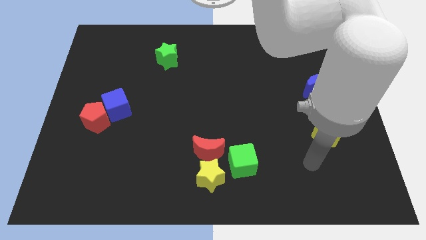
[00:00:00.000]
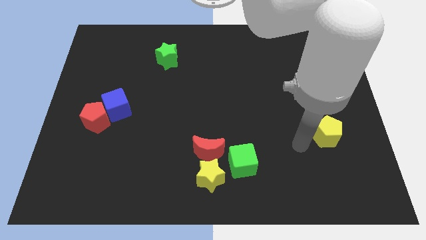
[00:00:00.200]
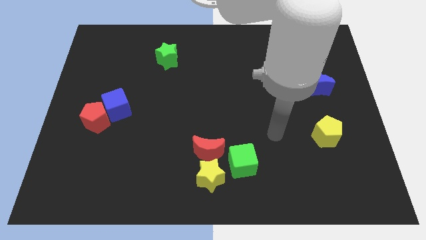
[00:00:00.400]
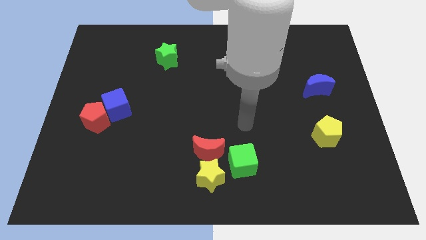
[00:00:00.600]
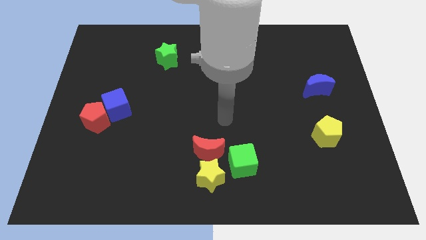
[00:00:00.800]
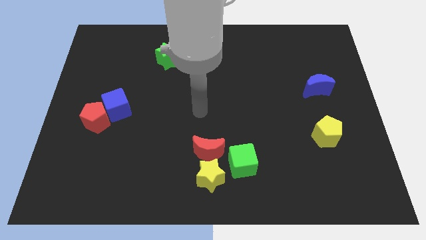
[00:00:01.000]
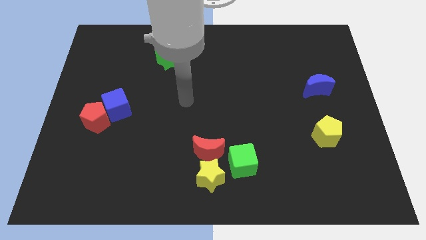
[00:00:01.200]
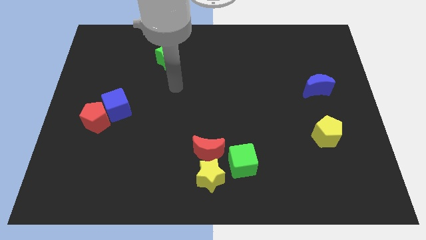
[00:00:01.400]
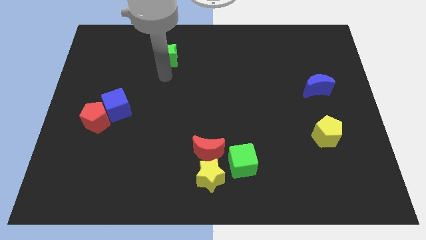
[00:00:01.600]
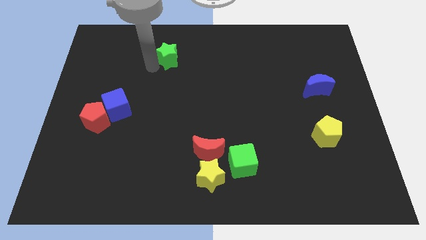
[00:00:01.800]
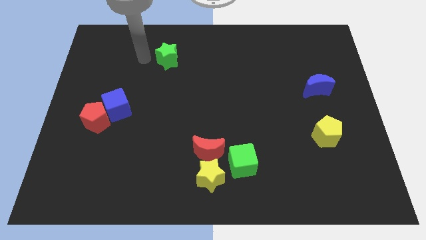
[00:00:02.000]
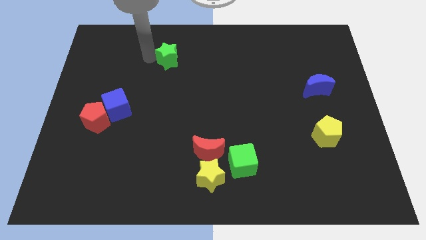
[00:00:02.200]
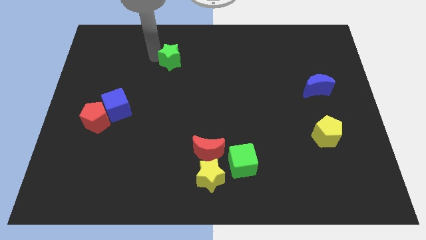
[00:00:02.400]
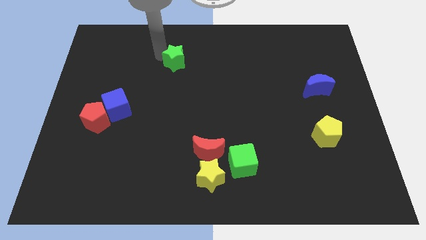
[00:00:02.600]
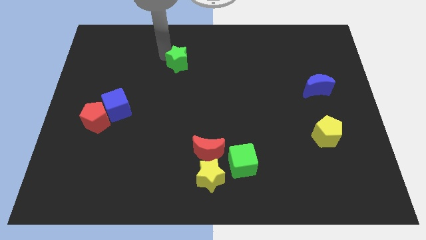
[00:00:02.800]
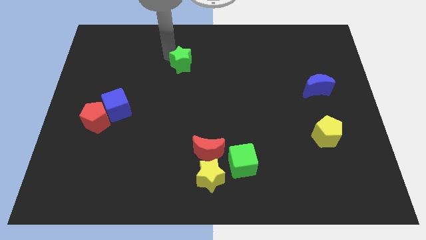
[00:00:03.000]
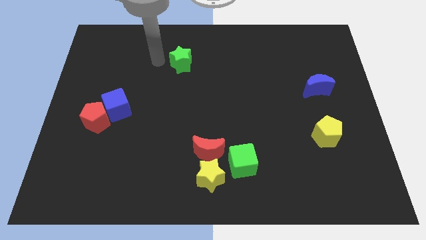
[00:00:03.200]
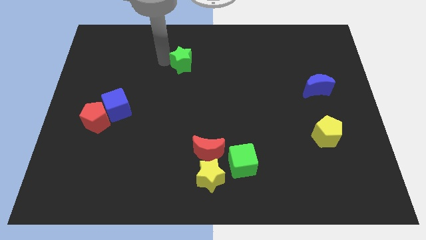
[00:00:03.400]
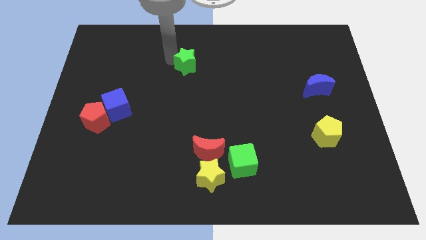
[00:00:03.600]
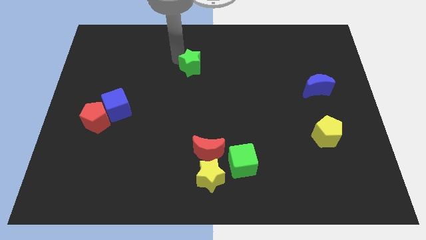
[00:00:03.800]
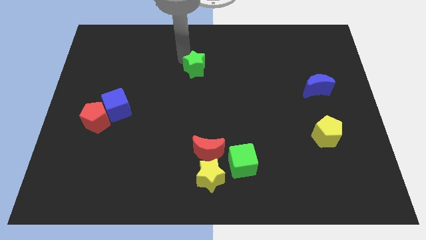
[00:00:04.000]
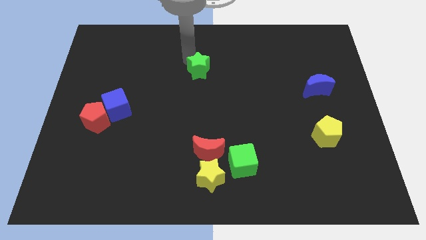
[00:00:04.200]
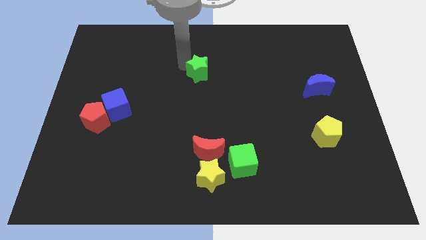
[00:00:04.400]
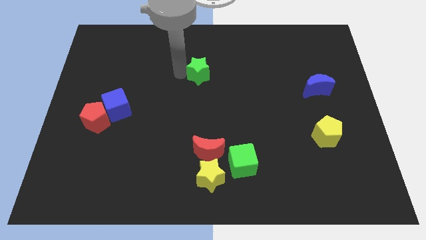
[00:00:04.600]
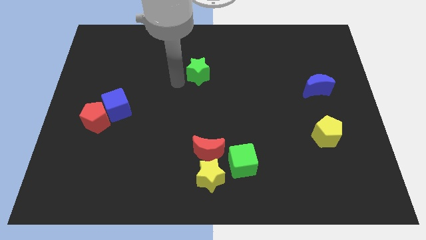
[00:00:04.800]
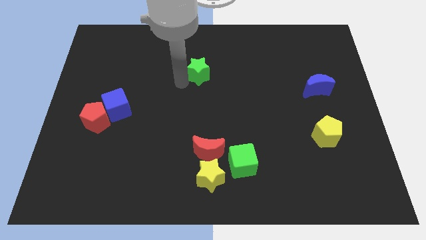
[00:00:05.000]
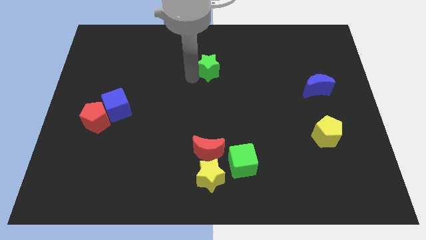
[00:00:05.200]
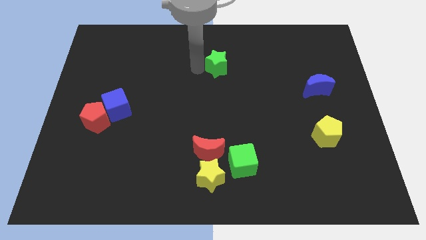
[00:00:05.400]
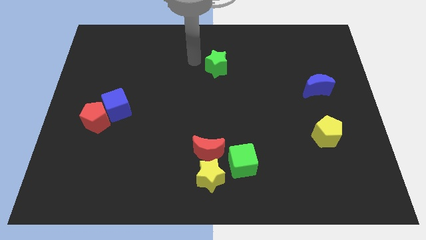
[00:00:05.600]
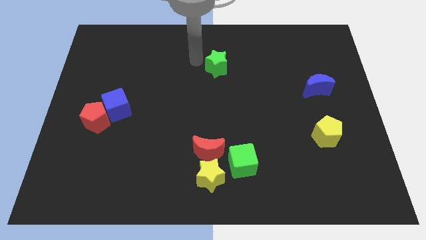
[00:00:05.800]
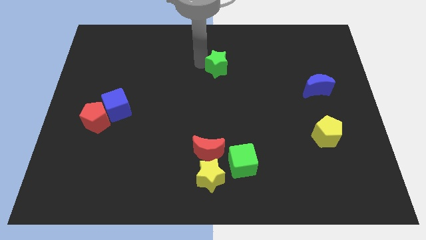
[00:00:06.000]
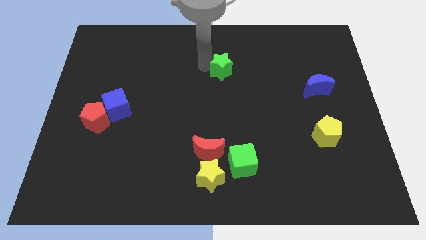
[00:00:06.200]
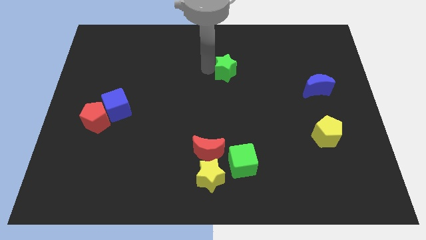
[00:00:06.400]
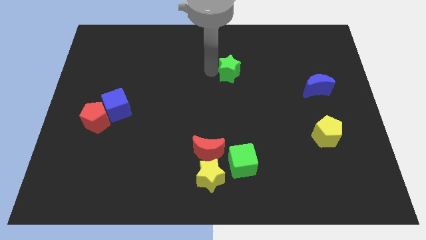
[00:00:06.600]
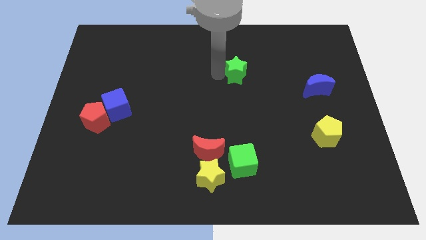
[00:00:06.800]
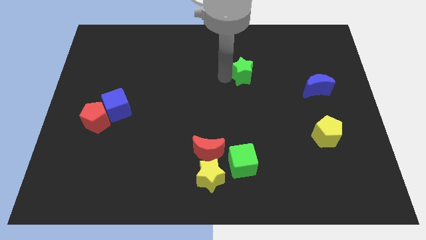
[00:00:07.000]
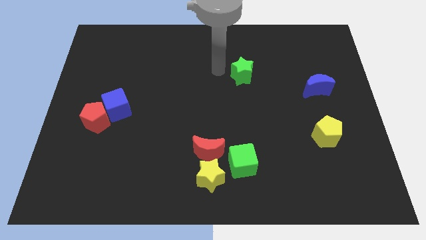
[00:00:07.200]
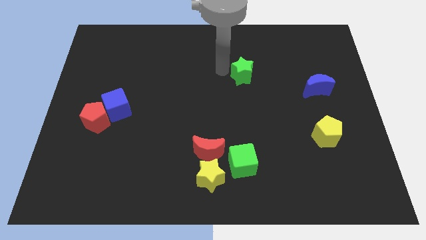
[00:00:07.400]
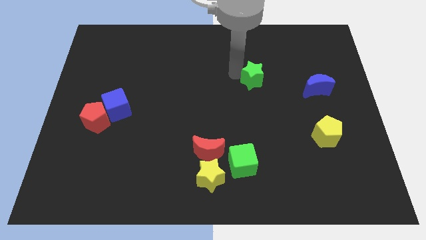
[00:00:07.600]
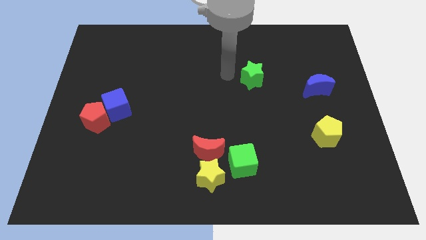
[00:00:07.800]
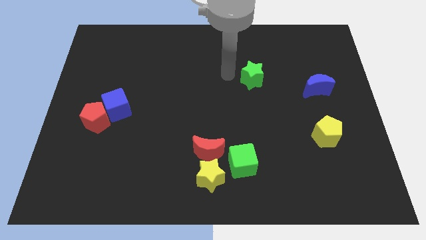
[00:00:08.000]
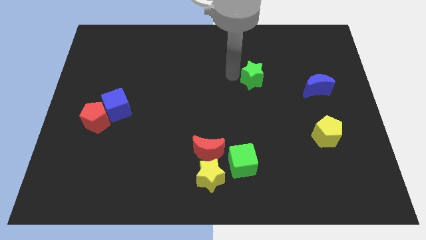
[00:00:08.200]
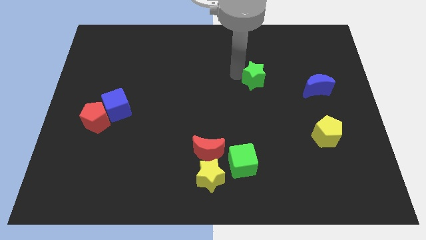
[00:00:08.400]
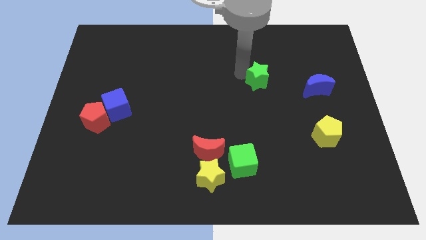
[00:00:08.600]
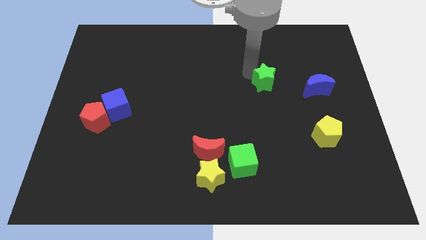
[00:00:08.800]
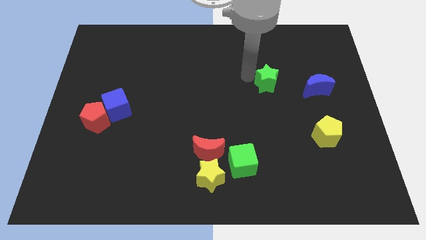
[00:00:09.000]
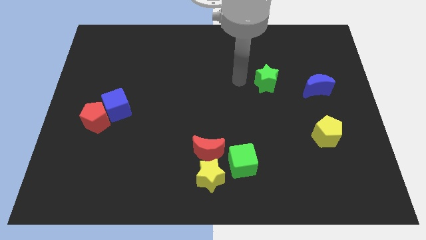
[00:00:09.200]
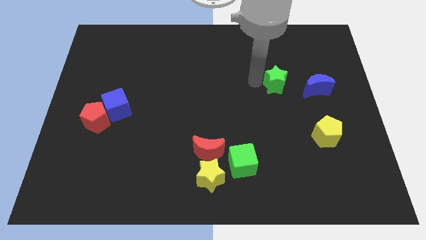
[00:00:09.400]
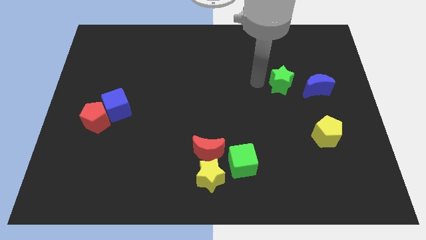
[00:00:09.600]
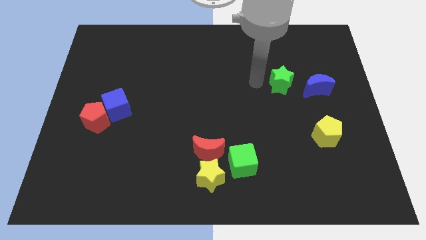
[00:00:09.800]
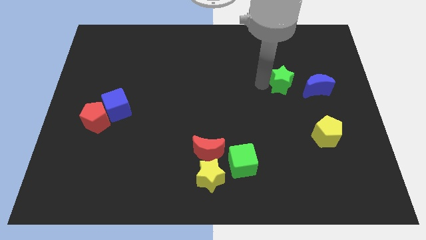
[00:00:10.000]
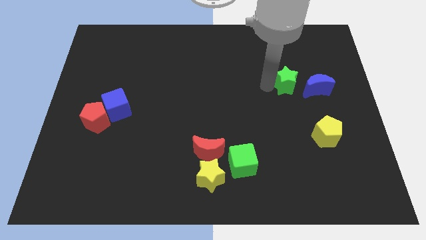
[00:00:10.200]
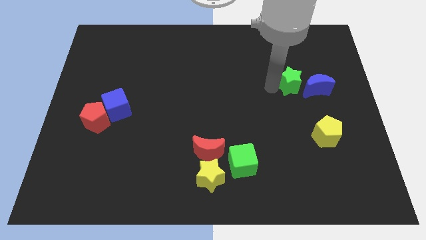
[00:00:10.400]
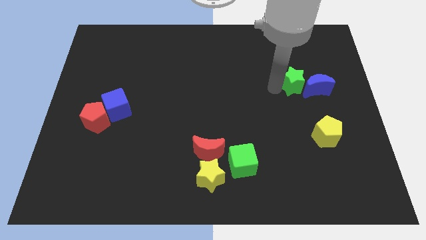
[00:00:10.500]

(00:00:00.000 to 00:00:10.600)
put the green star close to the blue moon

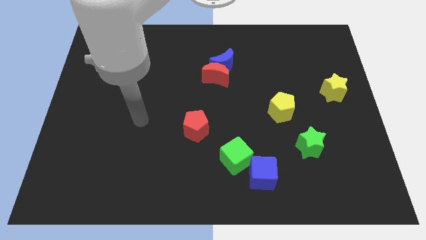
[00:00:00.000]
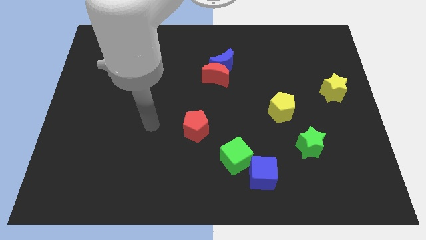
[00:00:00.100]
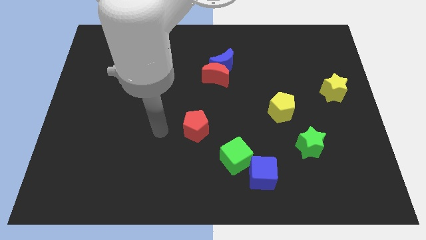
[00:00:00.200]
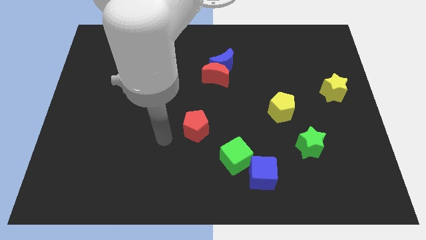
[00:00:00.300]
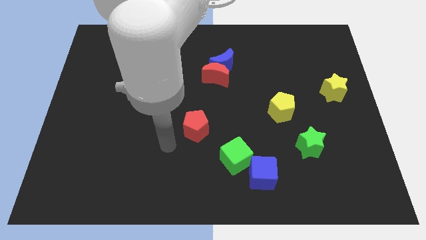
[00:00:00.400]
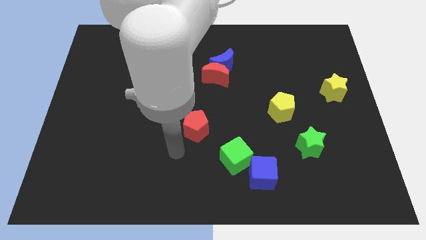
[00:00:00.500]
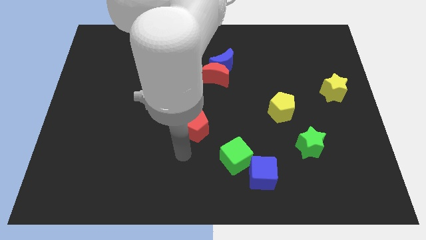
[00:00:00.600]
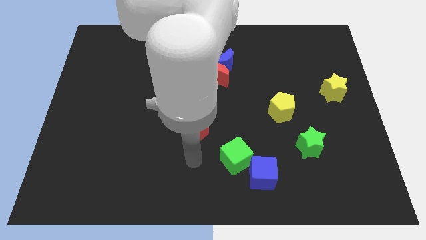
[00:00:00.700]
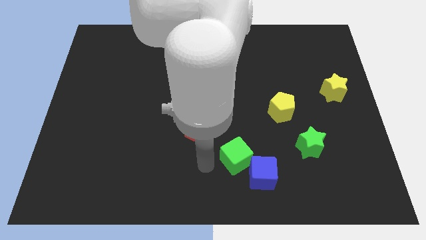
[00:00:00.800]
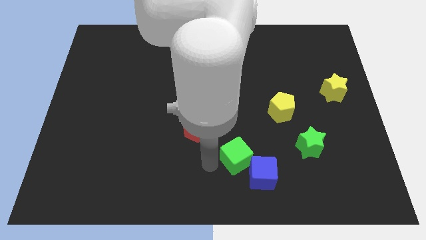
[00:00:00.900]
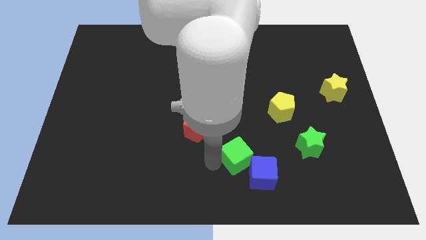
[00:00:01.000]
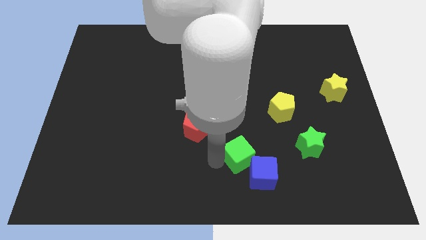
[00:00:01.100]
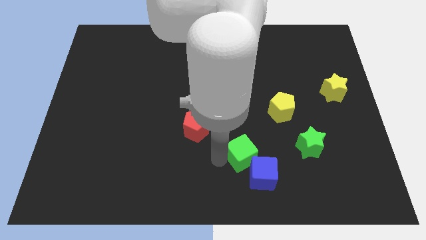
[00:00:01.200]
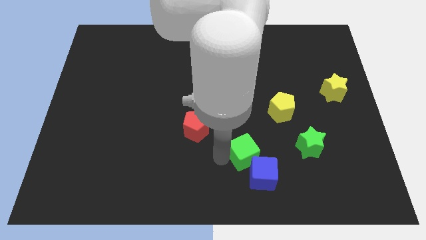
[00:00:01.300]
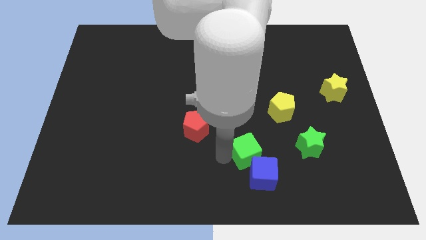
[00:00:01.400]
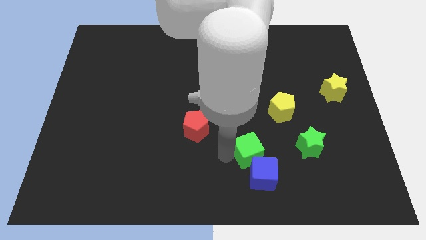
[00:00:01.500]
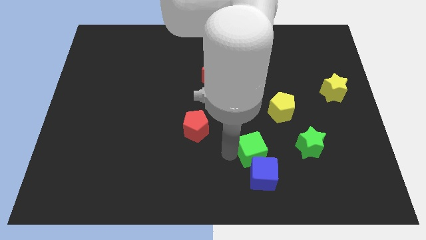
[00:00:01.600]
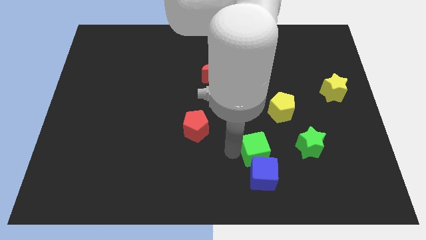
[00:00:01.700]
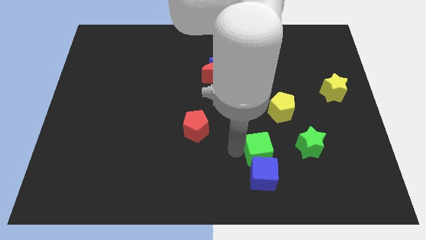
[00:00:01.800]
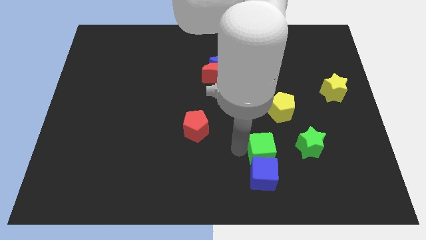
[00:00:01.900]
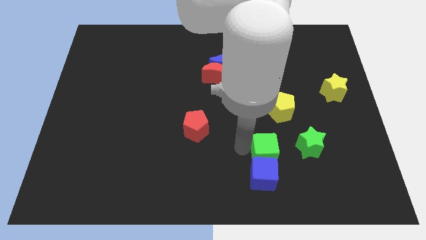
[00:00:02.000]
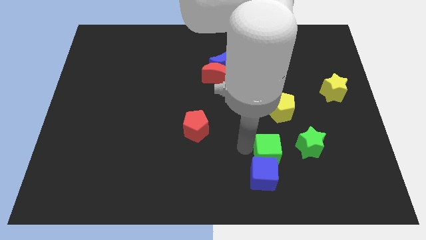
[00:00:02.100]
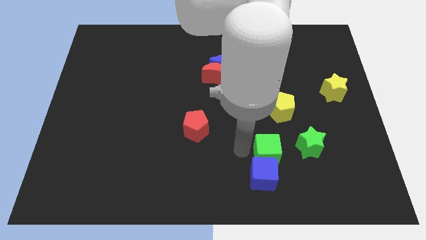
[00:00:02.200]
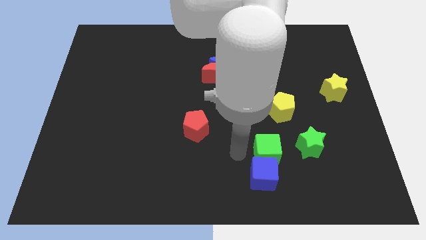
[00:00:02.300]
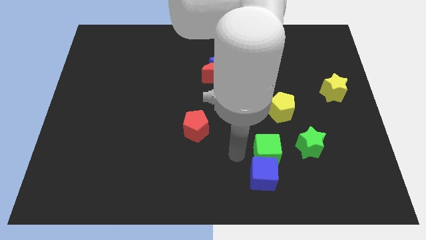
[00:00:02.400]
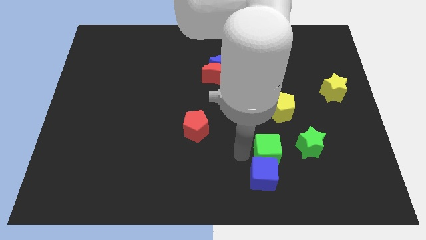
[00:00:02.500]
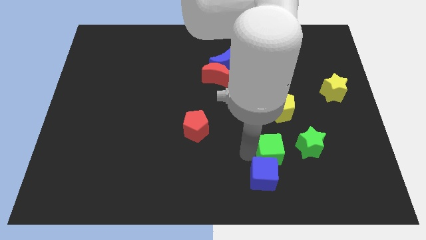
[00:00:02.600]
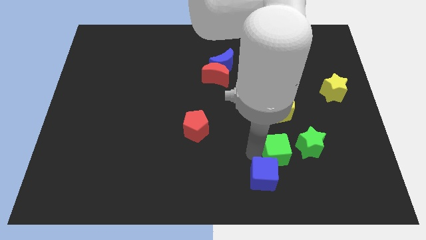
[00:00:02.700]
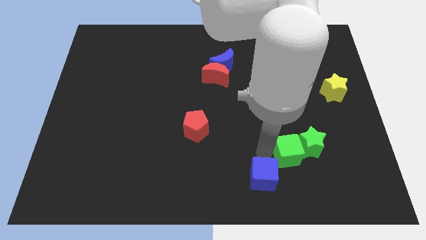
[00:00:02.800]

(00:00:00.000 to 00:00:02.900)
put the green cube to the green star
